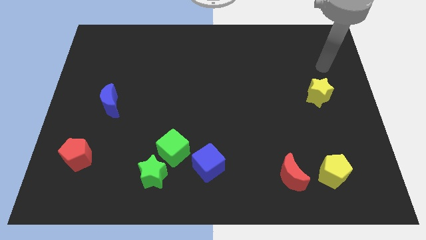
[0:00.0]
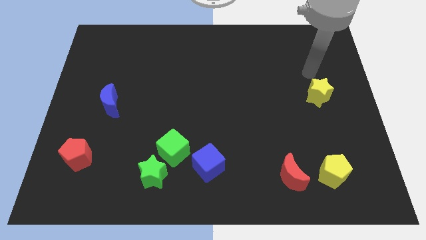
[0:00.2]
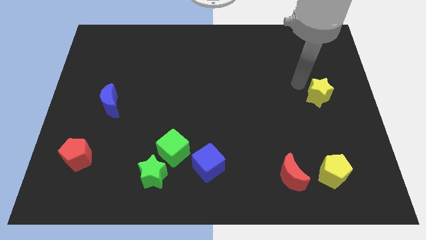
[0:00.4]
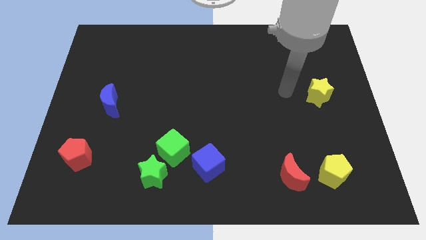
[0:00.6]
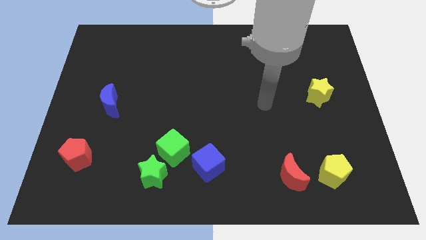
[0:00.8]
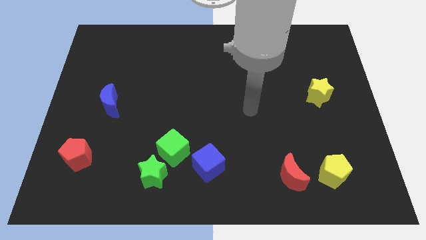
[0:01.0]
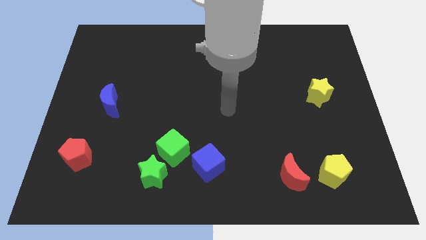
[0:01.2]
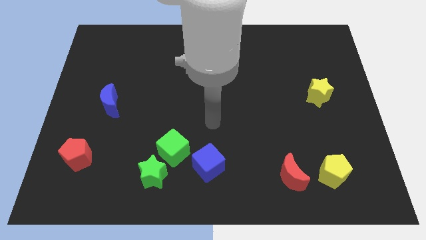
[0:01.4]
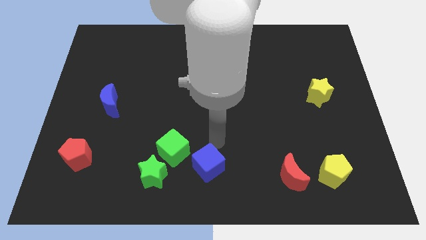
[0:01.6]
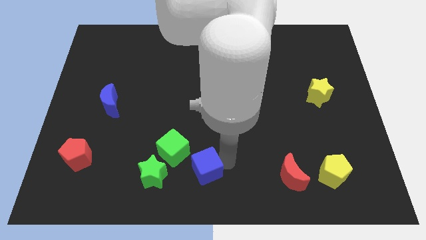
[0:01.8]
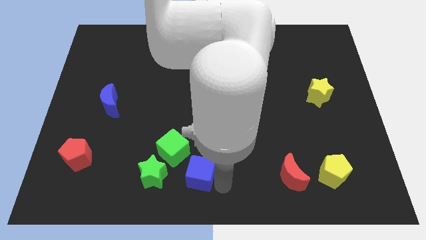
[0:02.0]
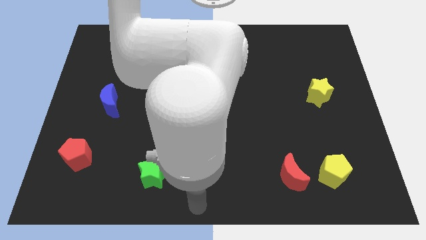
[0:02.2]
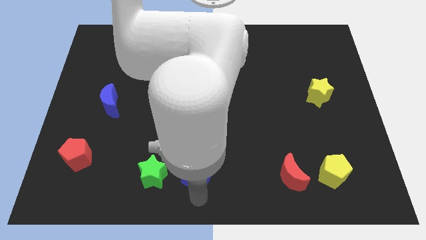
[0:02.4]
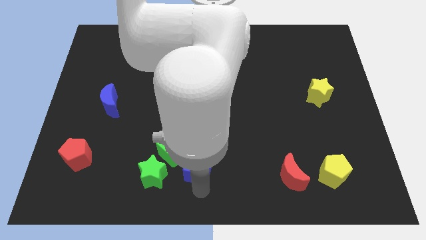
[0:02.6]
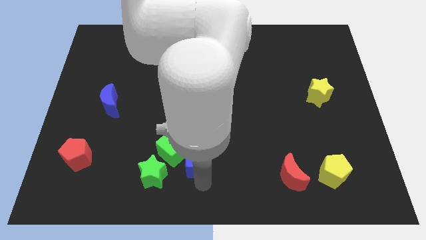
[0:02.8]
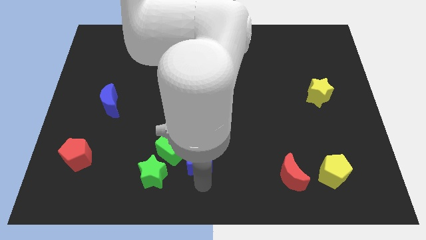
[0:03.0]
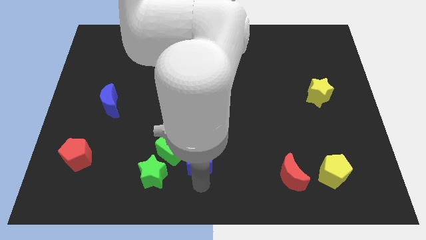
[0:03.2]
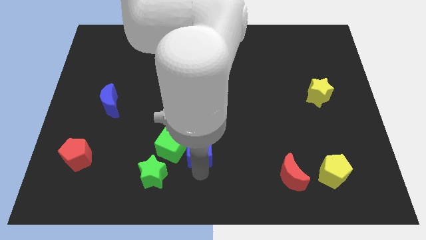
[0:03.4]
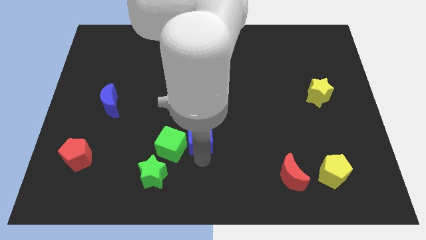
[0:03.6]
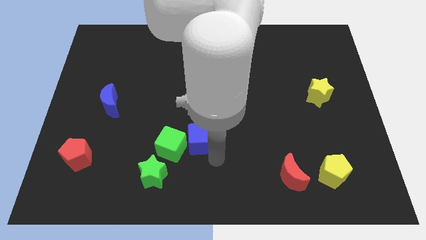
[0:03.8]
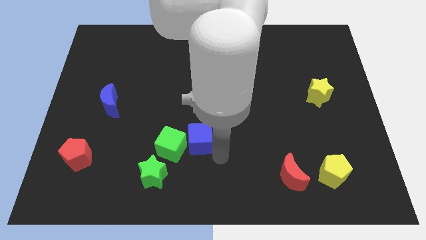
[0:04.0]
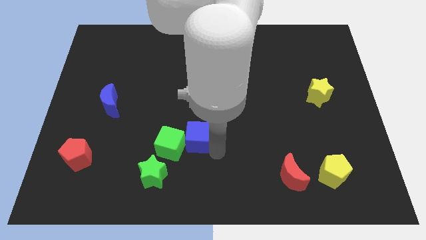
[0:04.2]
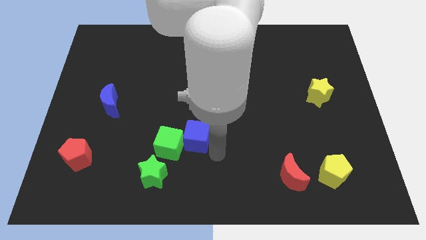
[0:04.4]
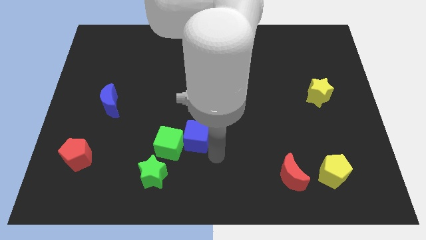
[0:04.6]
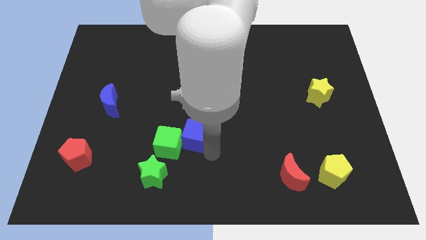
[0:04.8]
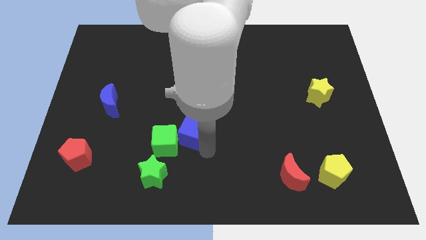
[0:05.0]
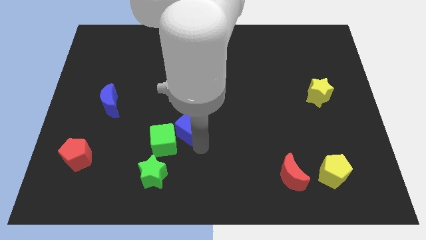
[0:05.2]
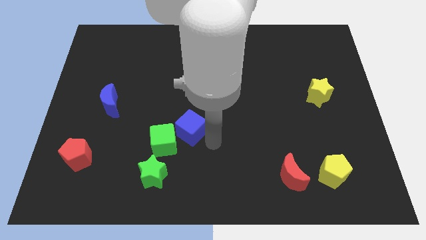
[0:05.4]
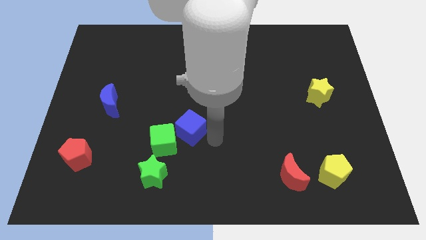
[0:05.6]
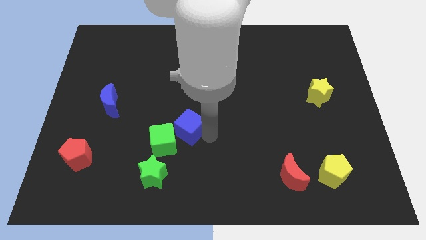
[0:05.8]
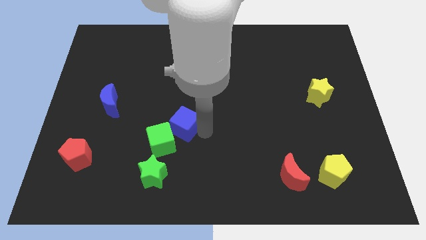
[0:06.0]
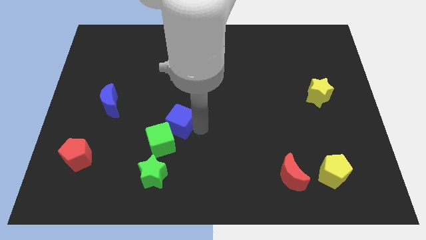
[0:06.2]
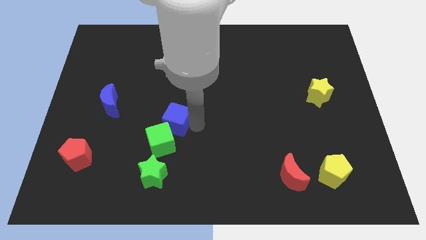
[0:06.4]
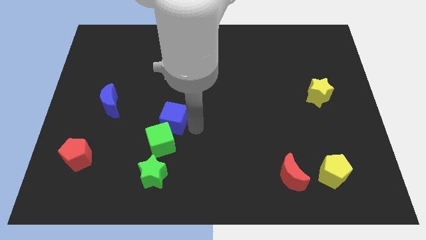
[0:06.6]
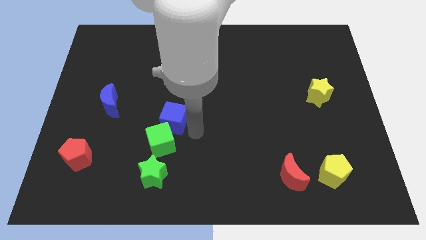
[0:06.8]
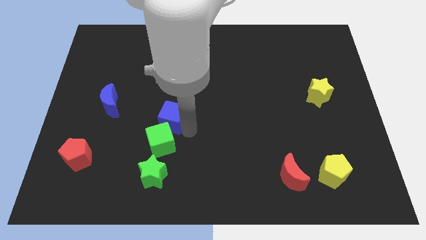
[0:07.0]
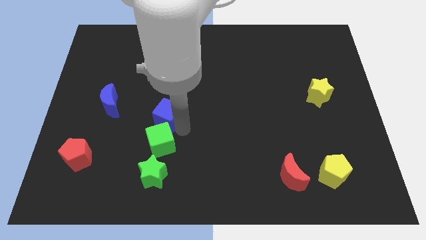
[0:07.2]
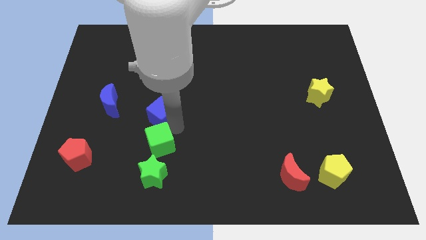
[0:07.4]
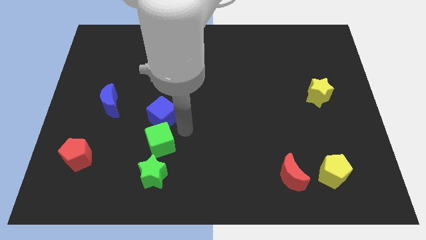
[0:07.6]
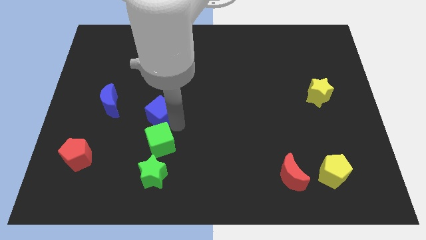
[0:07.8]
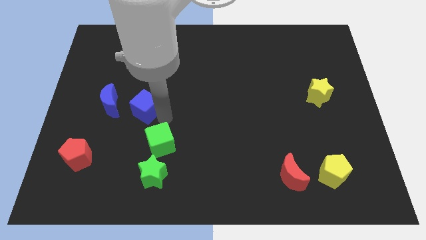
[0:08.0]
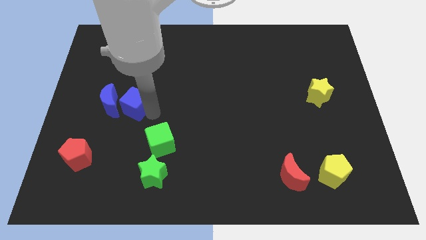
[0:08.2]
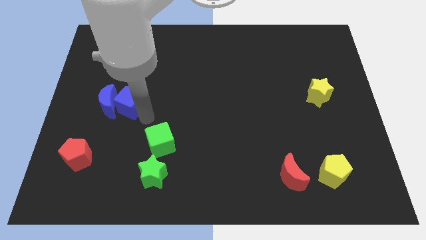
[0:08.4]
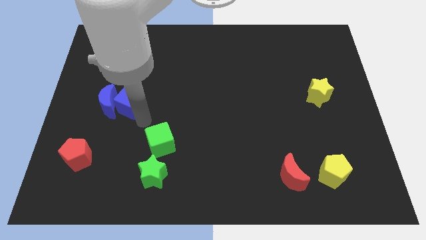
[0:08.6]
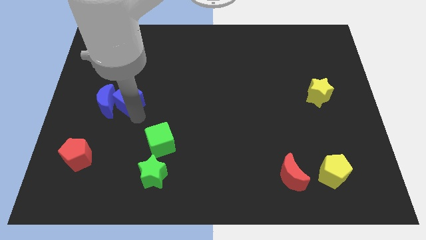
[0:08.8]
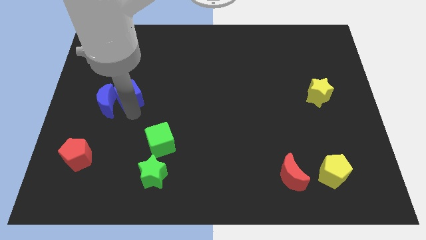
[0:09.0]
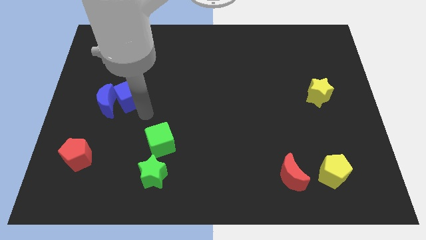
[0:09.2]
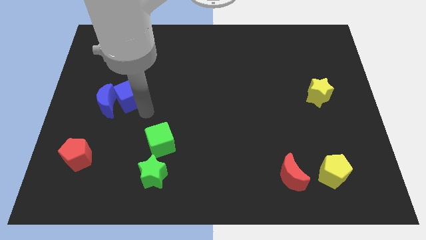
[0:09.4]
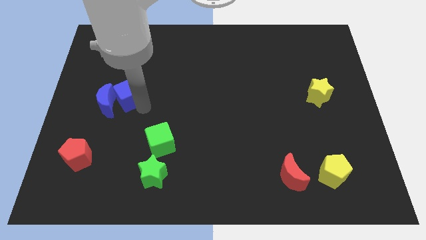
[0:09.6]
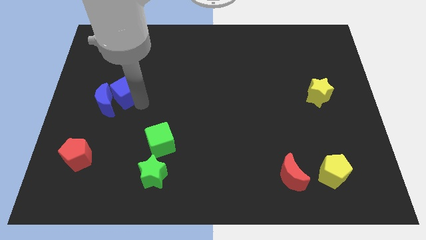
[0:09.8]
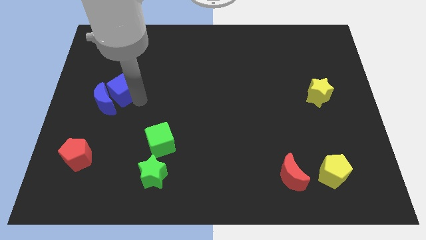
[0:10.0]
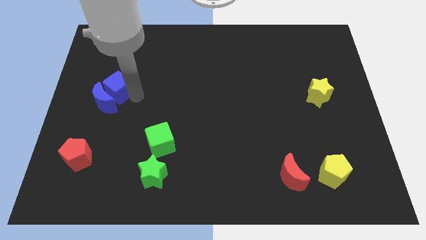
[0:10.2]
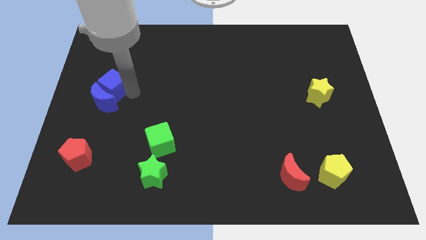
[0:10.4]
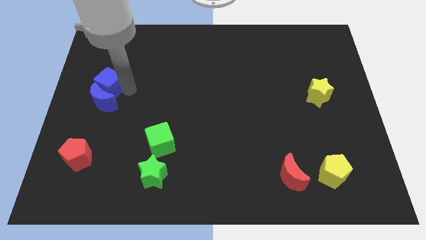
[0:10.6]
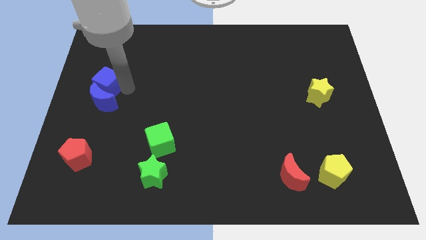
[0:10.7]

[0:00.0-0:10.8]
move the blue cube to the center left

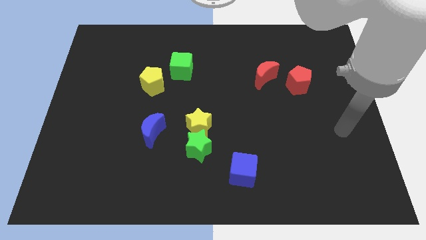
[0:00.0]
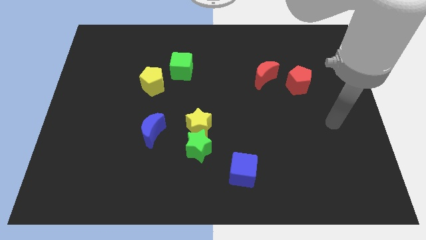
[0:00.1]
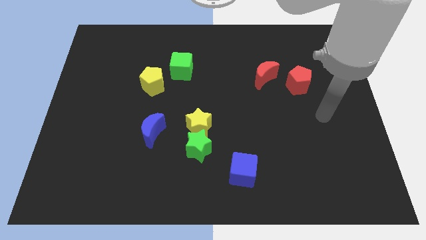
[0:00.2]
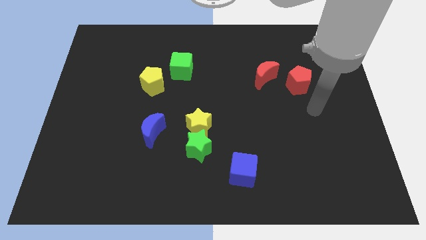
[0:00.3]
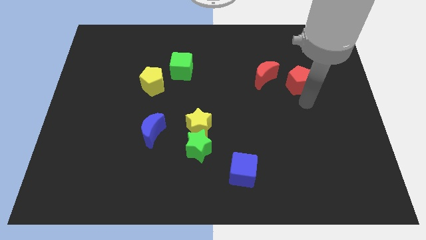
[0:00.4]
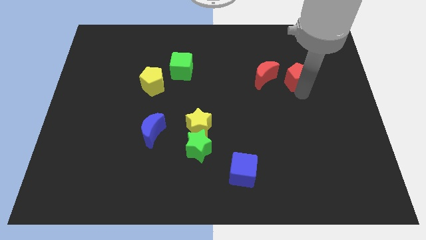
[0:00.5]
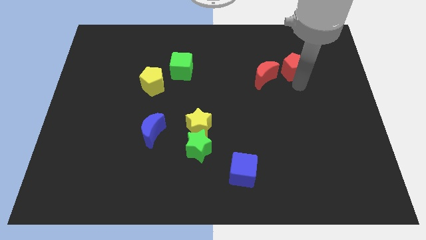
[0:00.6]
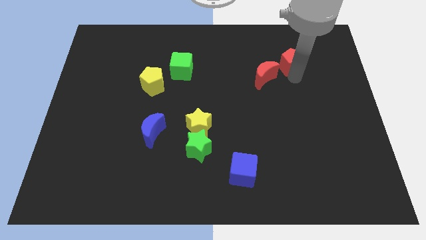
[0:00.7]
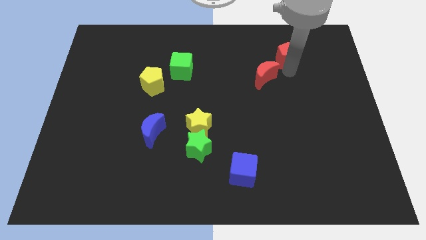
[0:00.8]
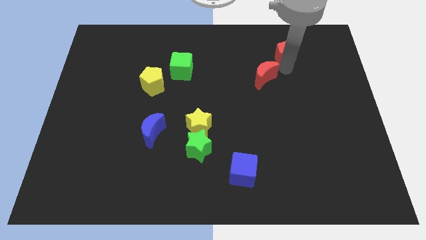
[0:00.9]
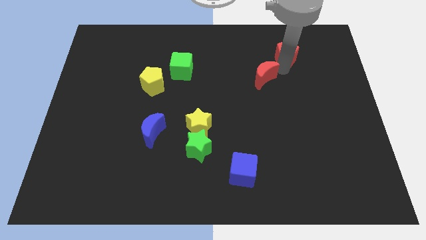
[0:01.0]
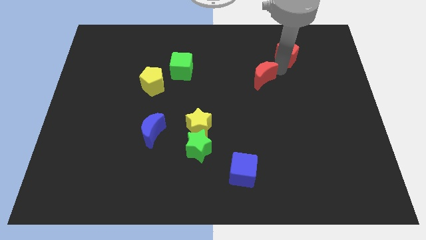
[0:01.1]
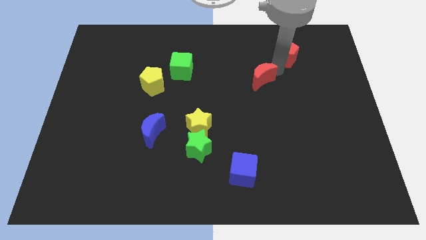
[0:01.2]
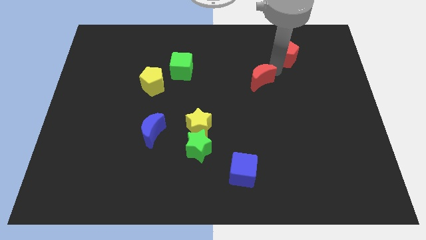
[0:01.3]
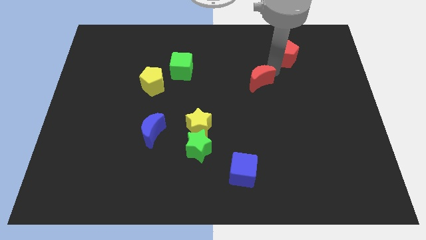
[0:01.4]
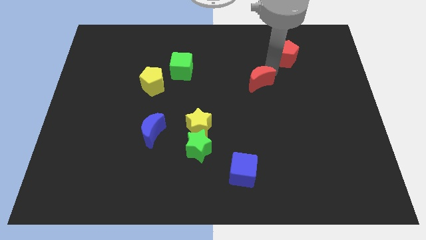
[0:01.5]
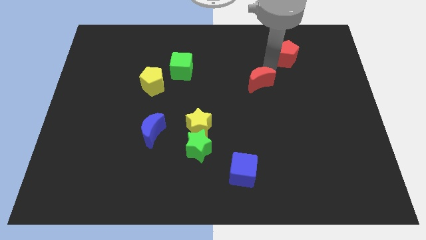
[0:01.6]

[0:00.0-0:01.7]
slide the red moon to the middle
